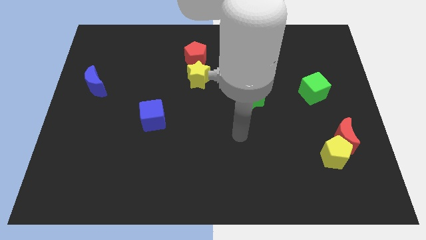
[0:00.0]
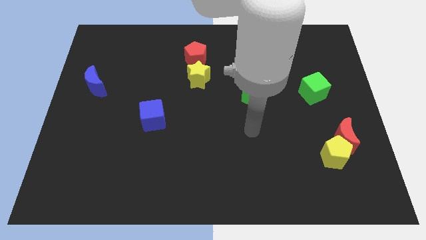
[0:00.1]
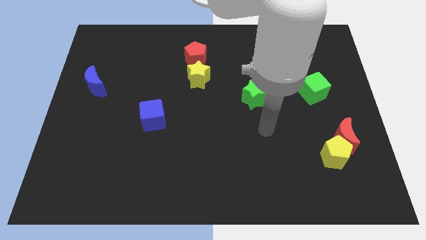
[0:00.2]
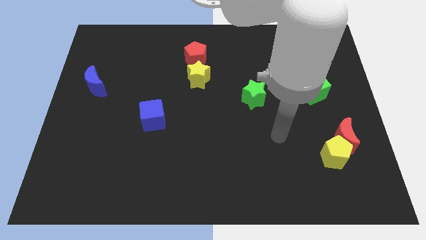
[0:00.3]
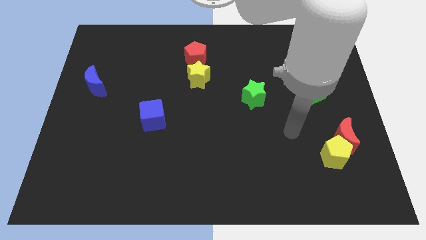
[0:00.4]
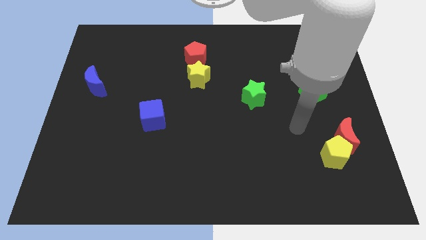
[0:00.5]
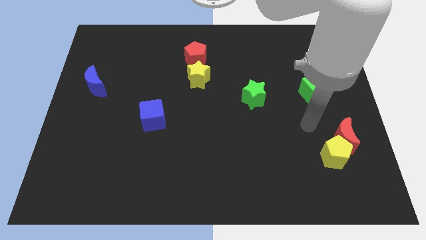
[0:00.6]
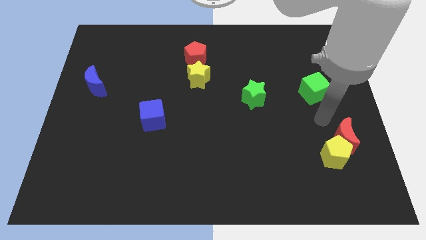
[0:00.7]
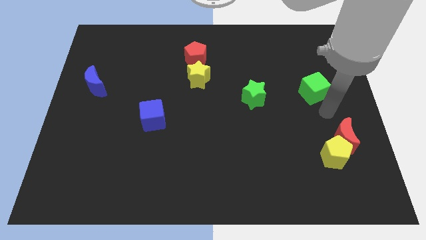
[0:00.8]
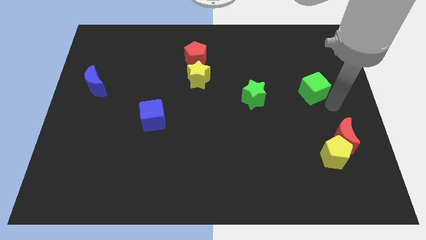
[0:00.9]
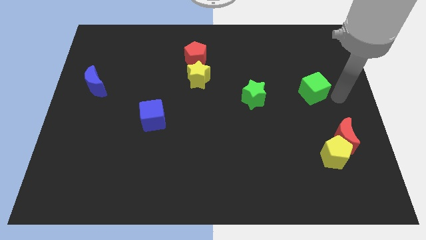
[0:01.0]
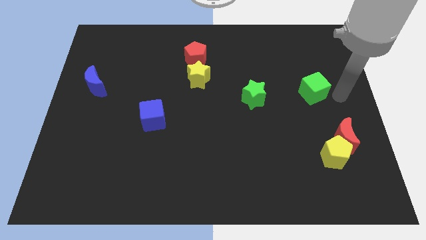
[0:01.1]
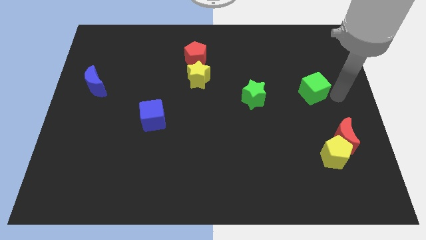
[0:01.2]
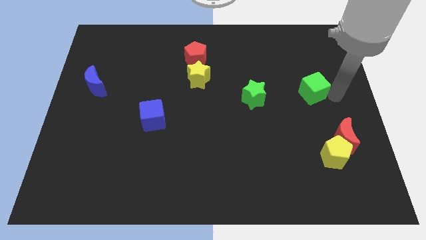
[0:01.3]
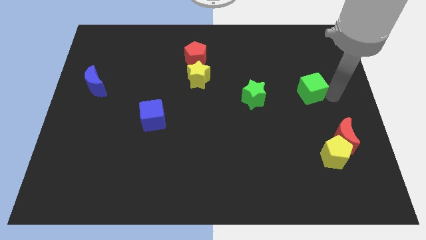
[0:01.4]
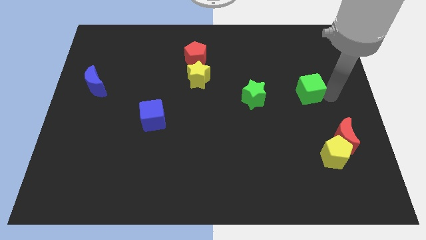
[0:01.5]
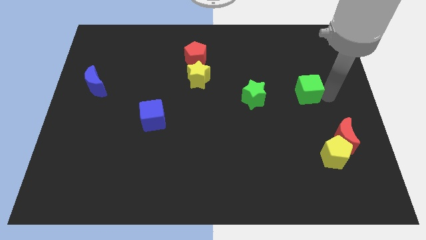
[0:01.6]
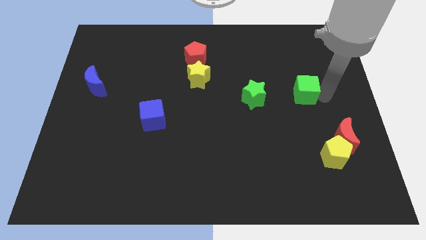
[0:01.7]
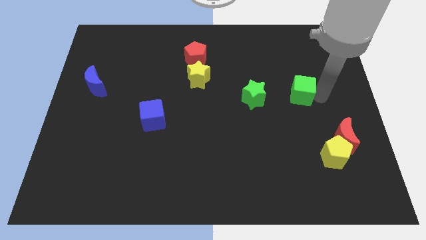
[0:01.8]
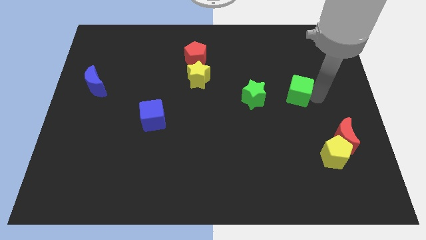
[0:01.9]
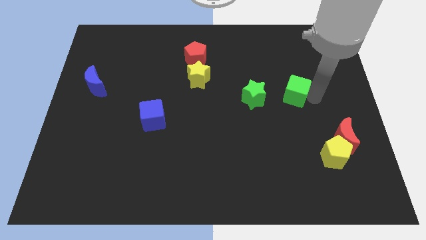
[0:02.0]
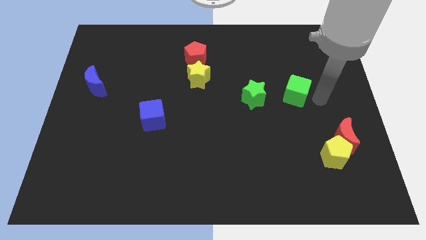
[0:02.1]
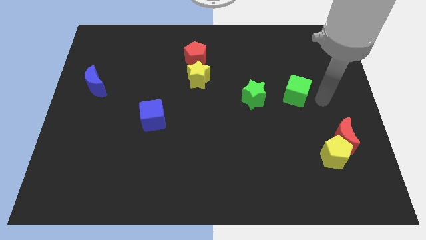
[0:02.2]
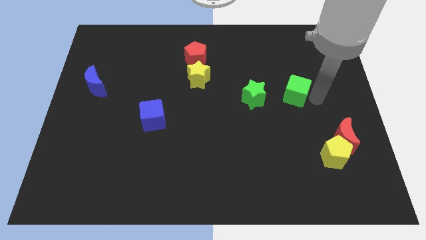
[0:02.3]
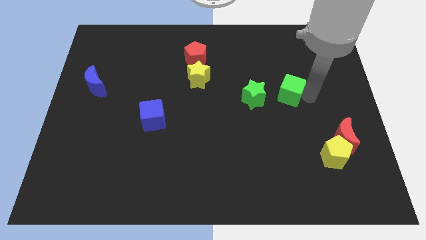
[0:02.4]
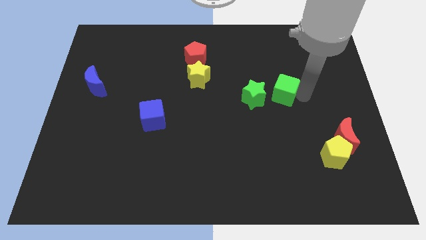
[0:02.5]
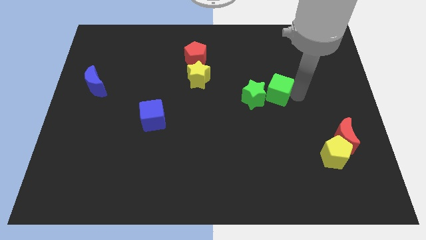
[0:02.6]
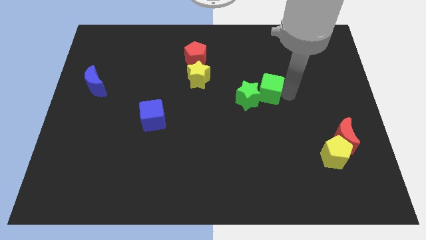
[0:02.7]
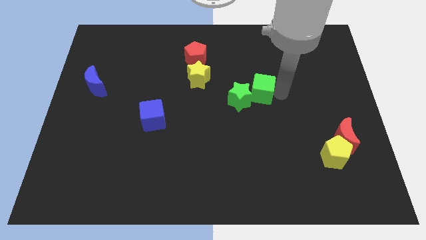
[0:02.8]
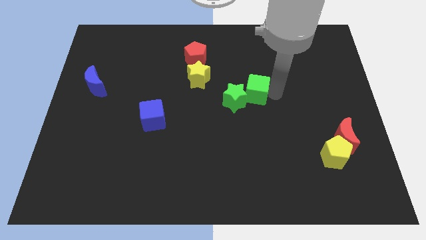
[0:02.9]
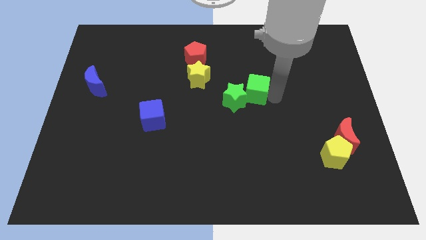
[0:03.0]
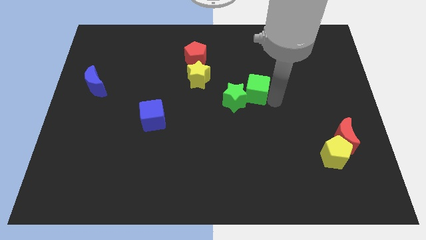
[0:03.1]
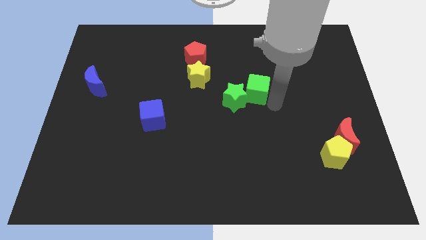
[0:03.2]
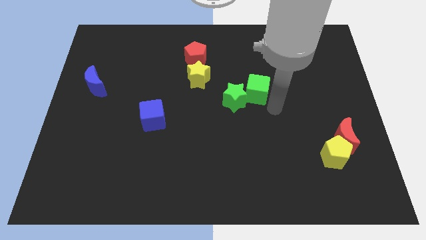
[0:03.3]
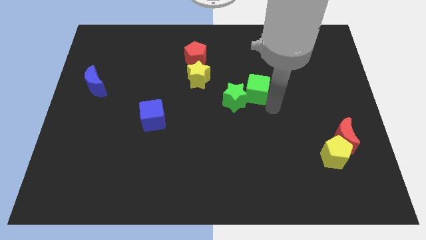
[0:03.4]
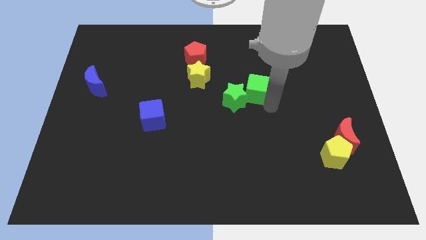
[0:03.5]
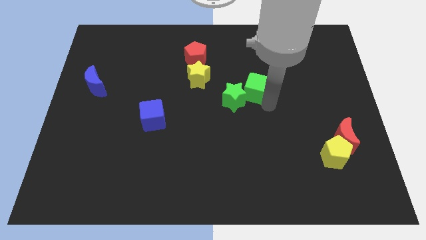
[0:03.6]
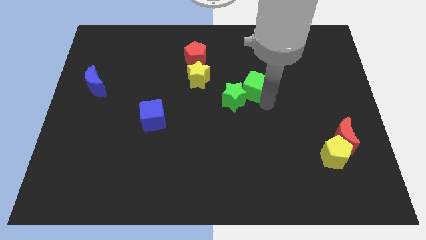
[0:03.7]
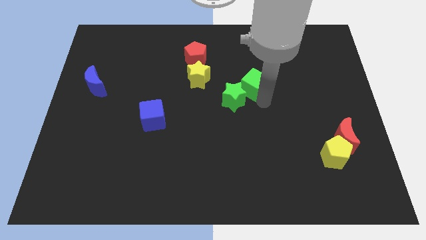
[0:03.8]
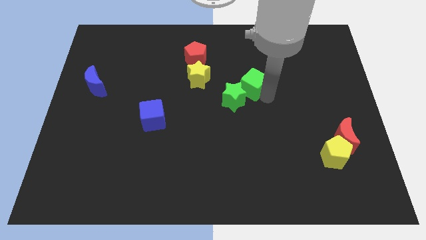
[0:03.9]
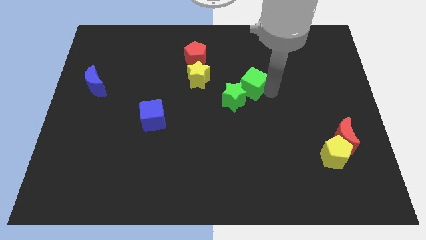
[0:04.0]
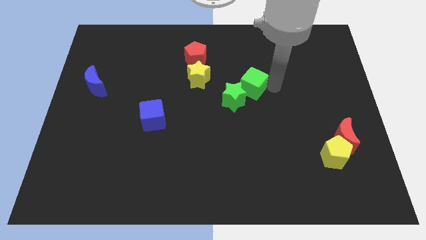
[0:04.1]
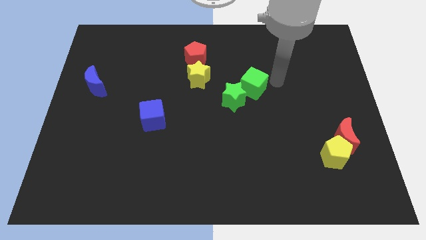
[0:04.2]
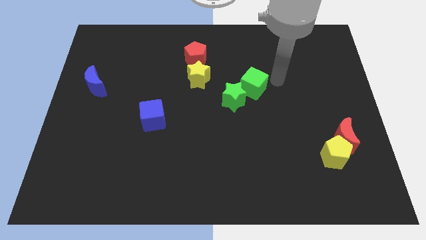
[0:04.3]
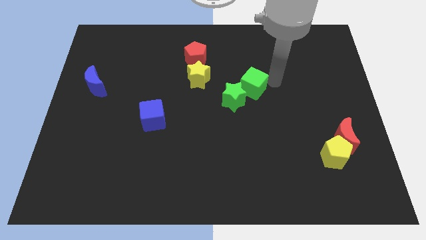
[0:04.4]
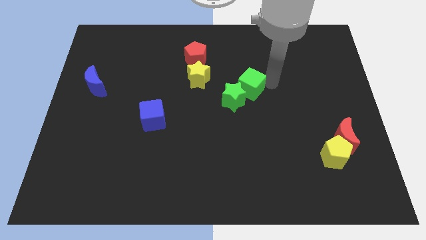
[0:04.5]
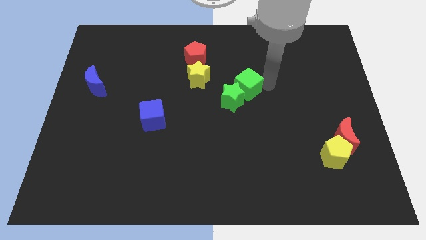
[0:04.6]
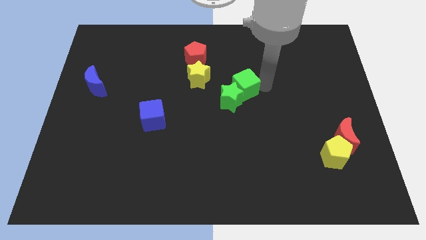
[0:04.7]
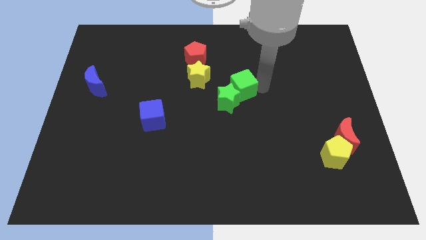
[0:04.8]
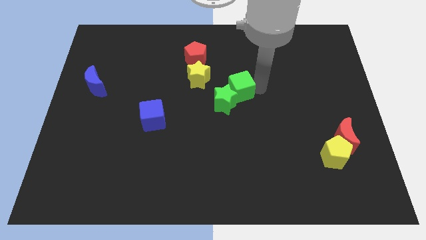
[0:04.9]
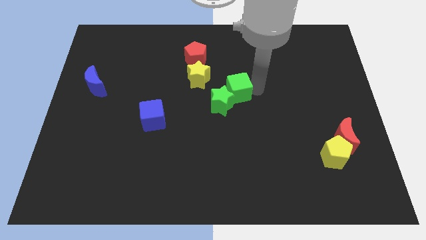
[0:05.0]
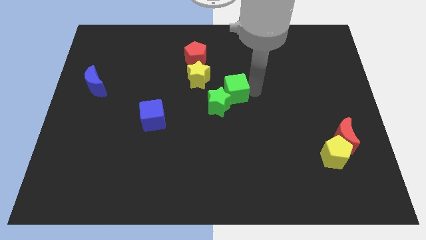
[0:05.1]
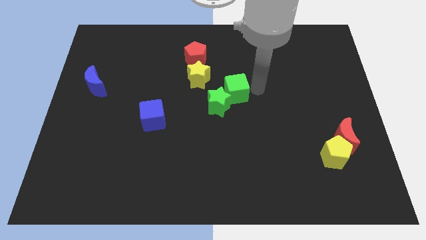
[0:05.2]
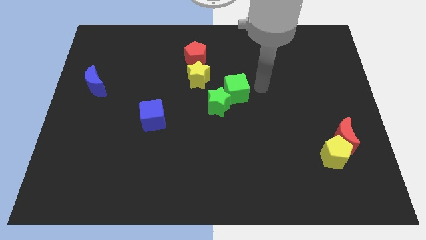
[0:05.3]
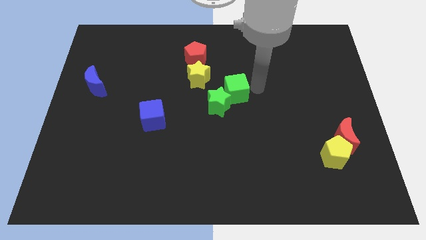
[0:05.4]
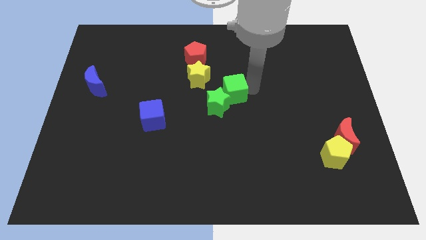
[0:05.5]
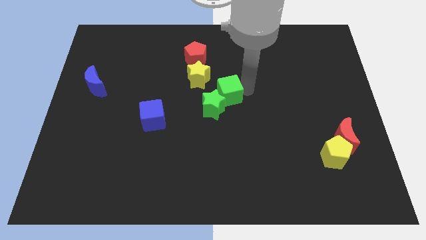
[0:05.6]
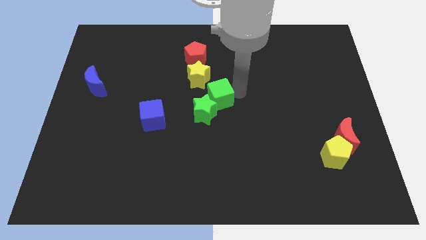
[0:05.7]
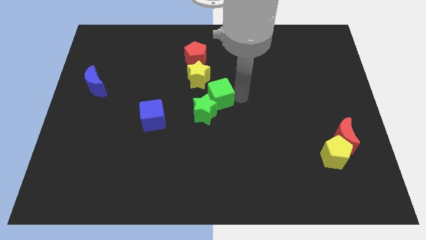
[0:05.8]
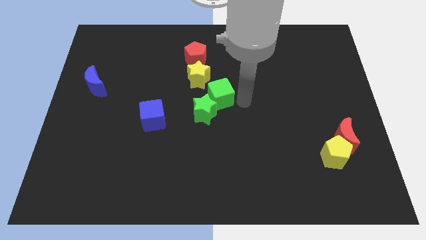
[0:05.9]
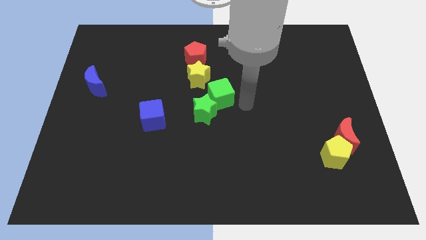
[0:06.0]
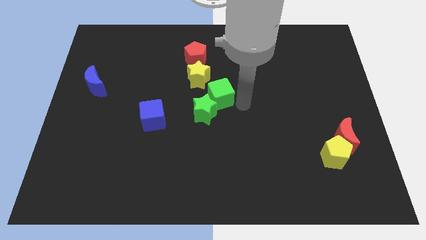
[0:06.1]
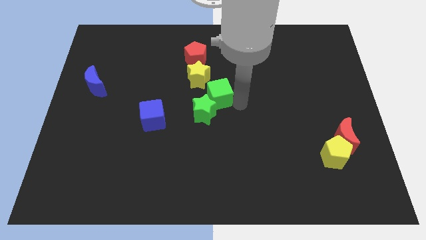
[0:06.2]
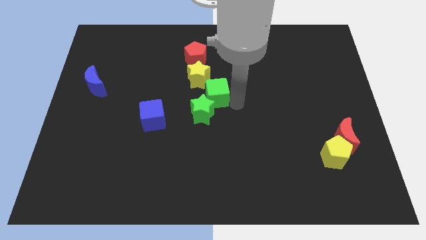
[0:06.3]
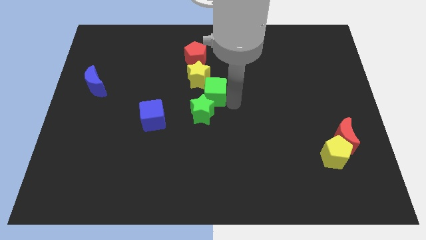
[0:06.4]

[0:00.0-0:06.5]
slide the green cube to the bottom side of the red pentagon

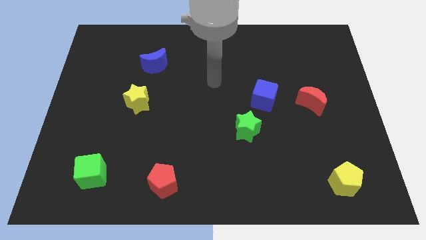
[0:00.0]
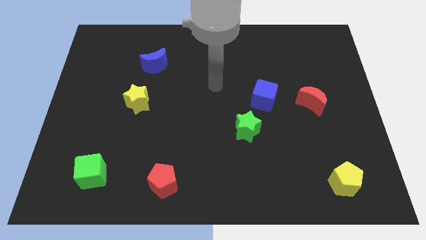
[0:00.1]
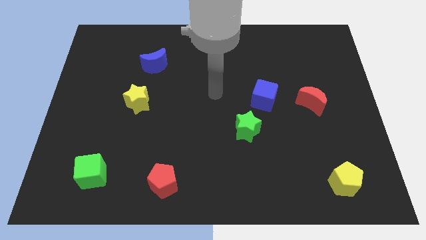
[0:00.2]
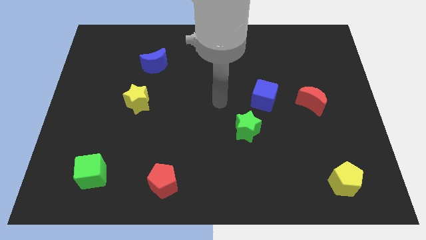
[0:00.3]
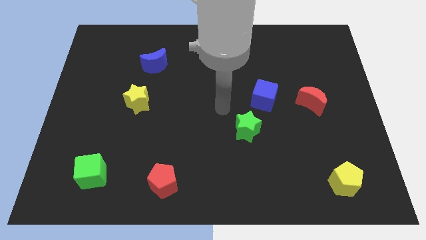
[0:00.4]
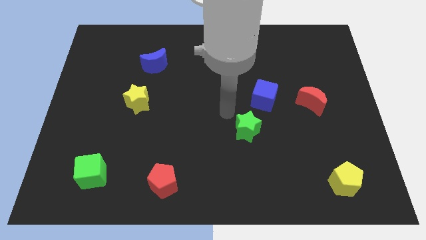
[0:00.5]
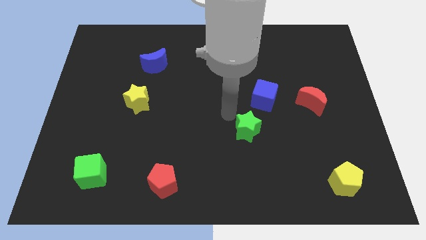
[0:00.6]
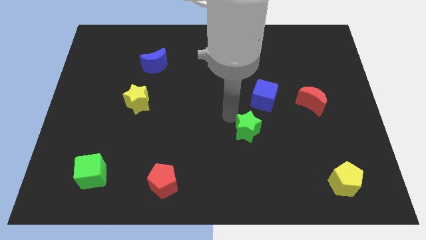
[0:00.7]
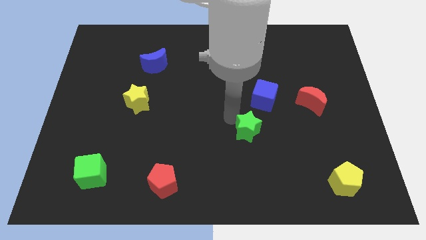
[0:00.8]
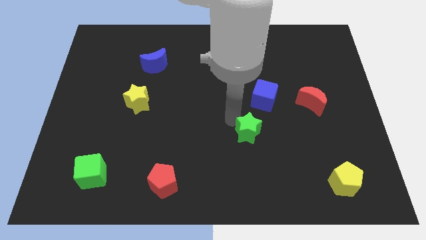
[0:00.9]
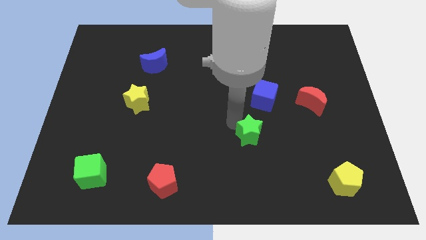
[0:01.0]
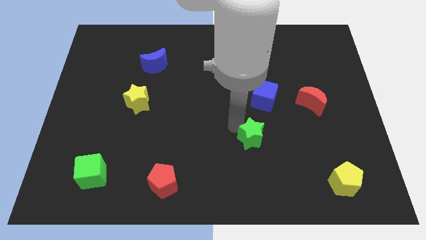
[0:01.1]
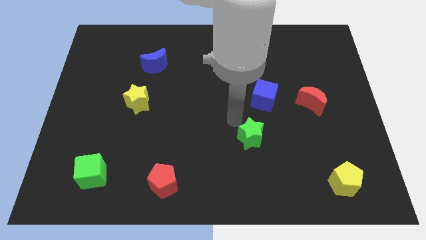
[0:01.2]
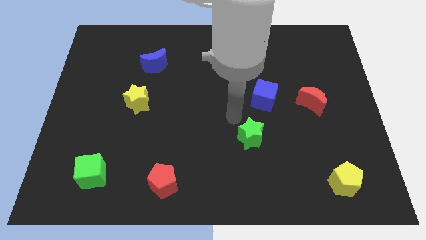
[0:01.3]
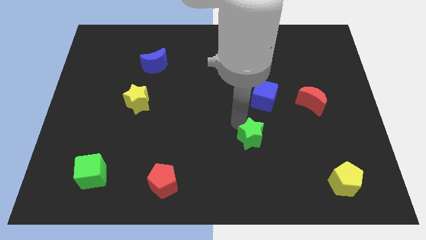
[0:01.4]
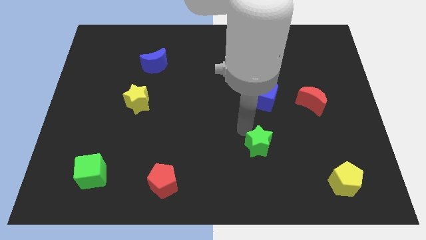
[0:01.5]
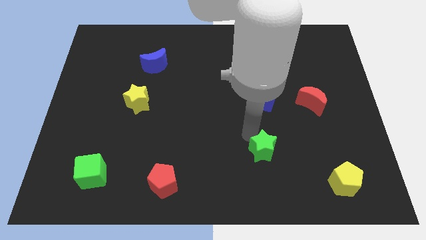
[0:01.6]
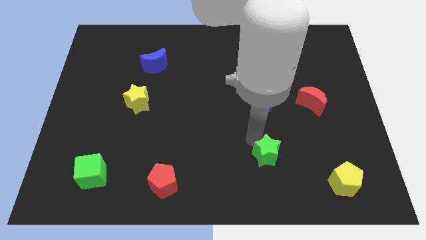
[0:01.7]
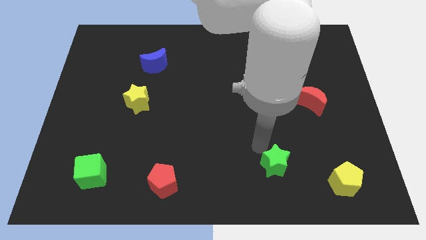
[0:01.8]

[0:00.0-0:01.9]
slide the green star to the left of the yellow pentagon
